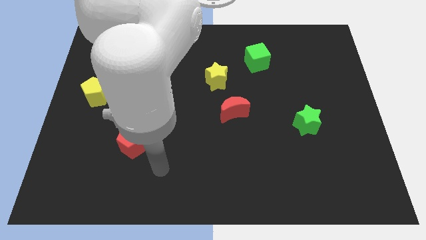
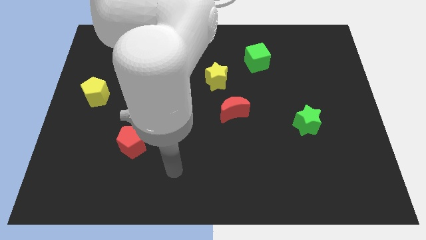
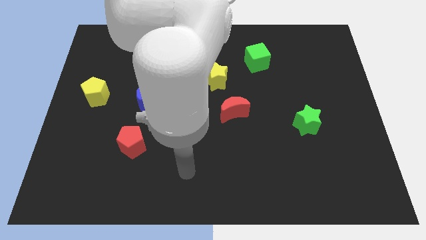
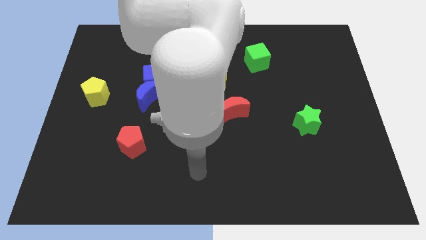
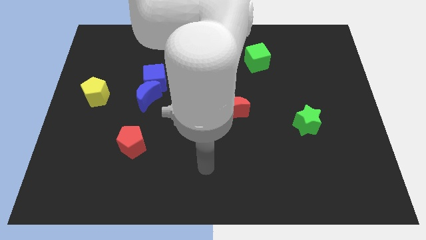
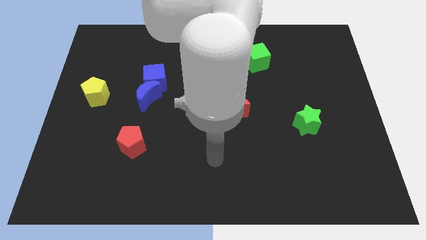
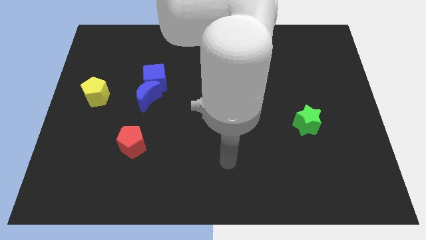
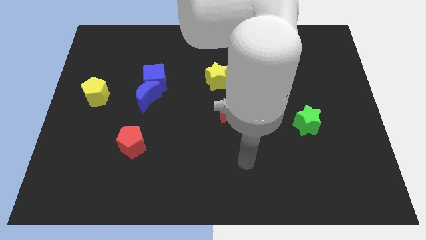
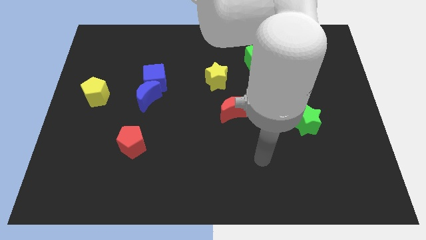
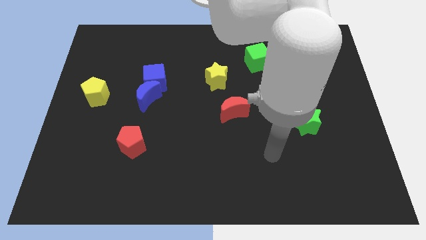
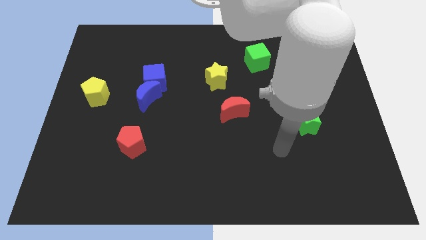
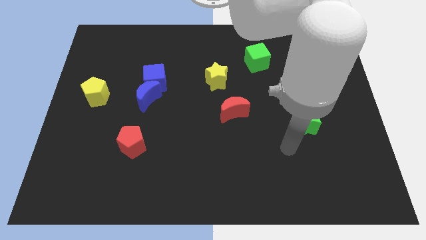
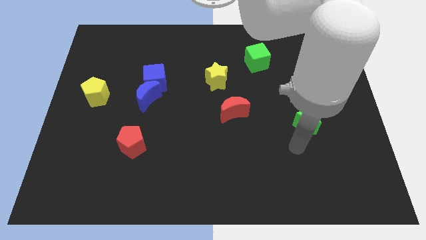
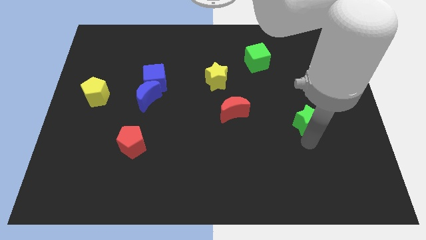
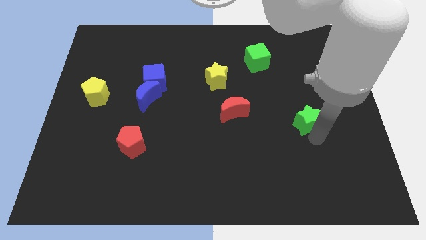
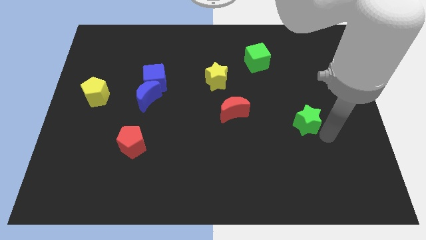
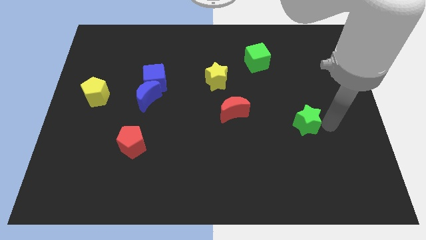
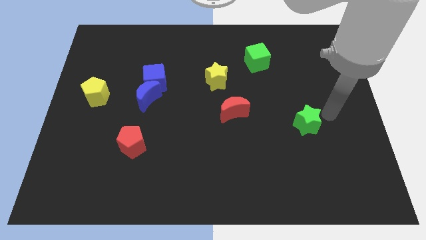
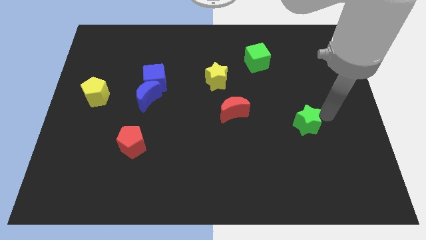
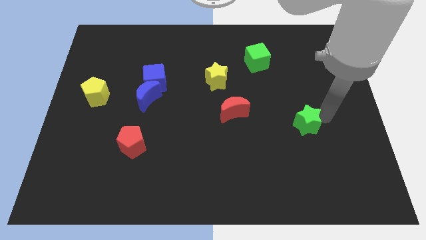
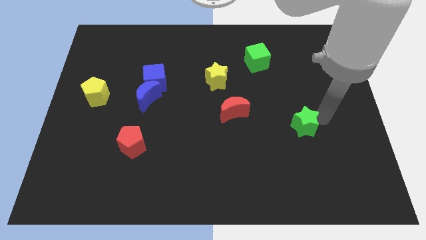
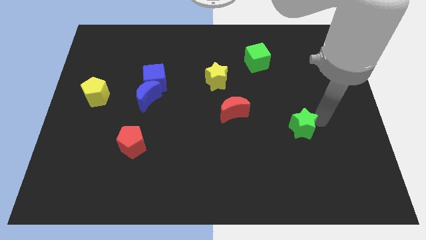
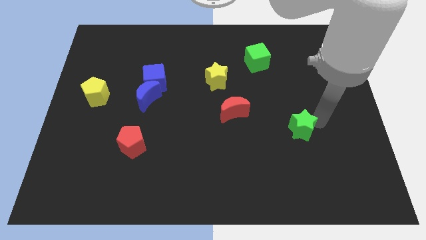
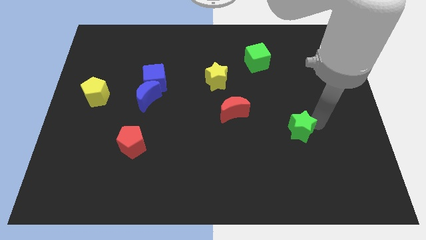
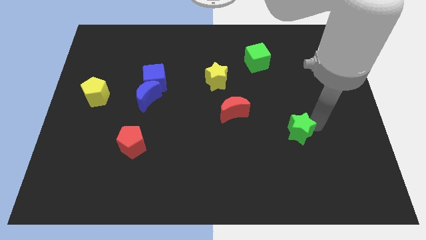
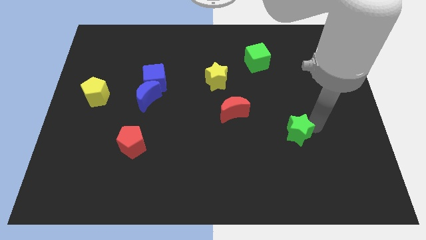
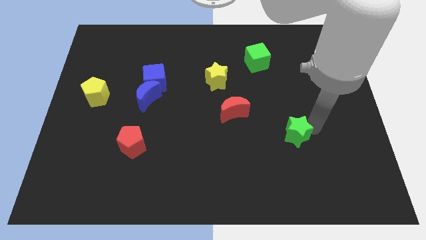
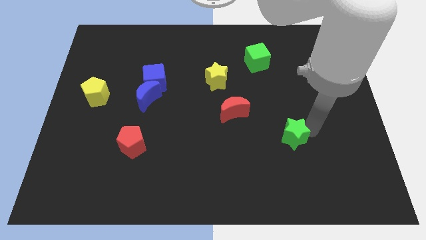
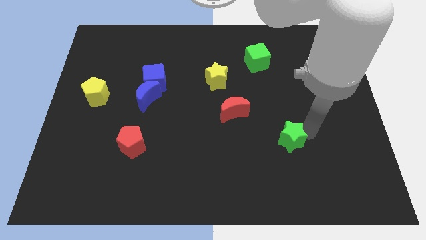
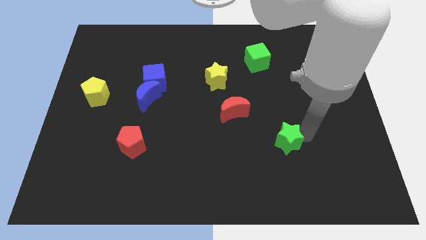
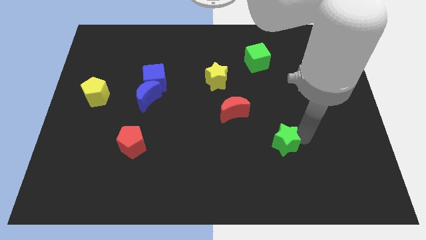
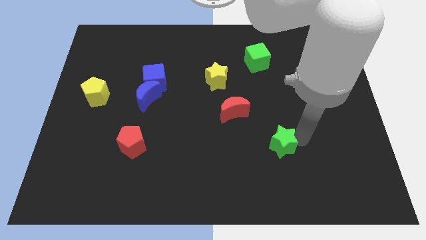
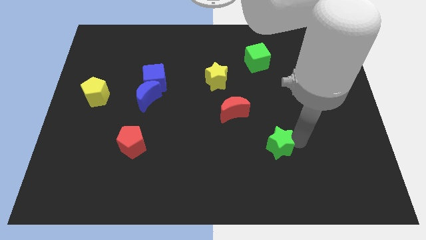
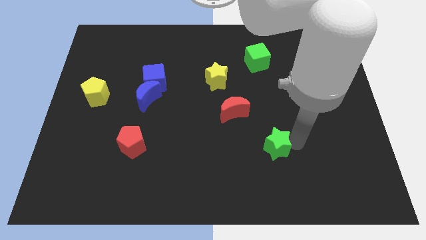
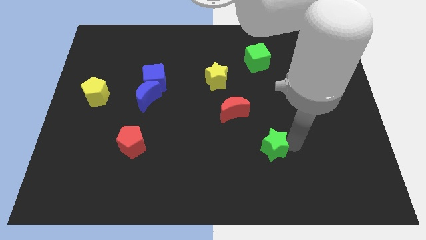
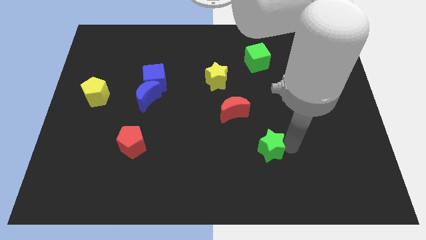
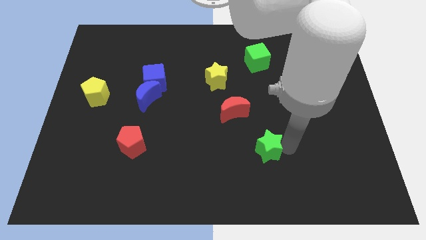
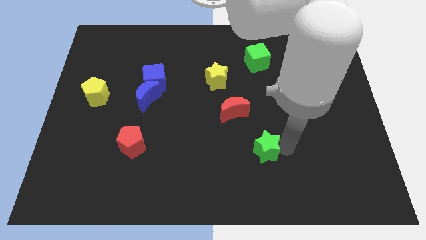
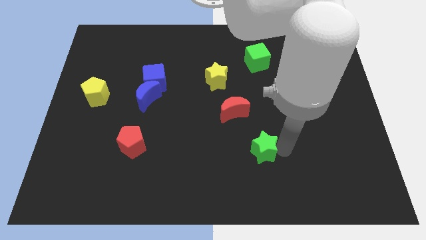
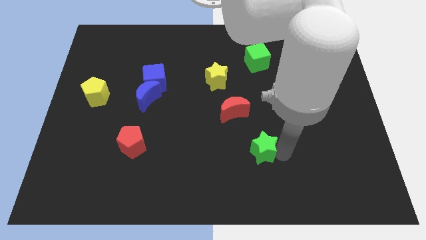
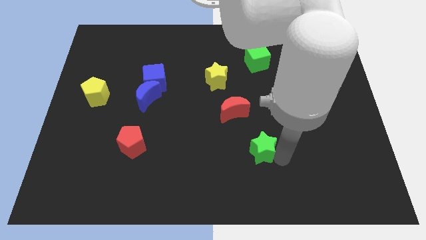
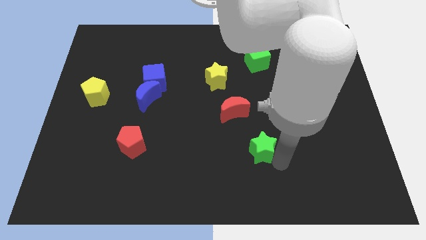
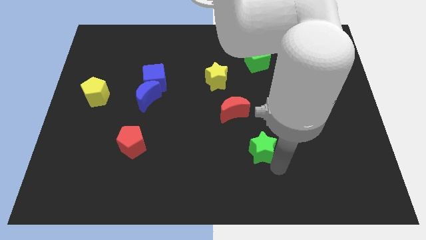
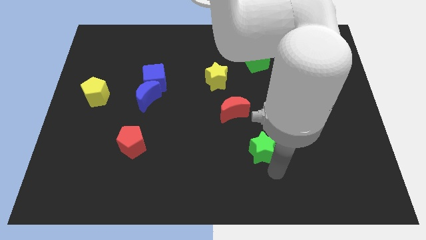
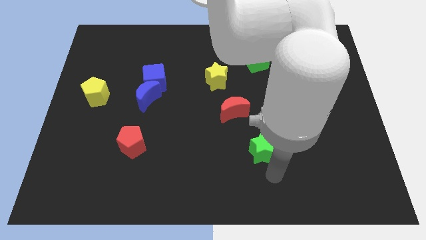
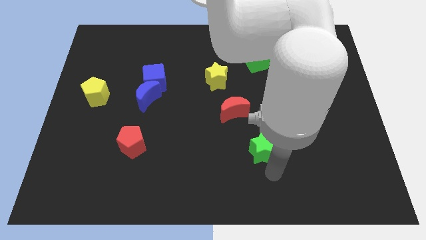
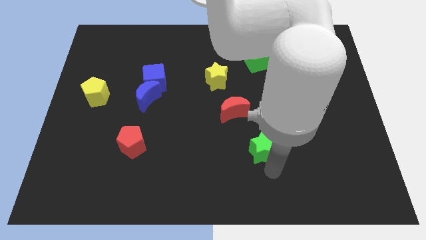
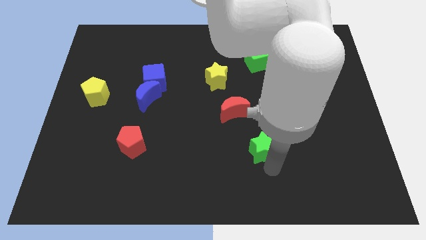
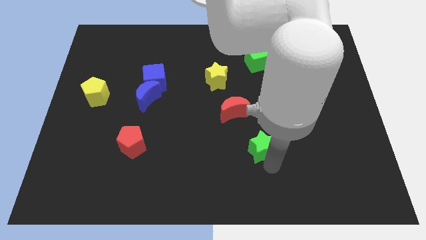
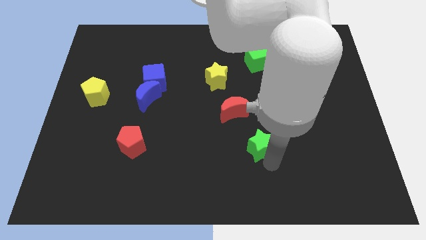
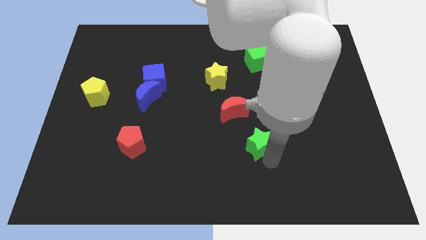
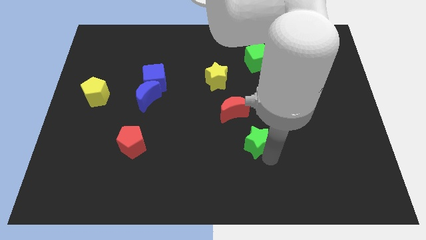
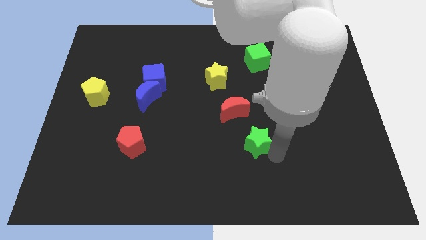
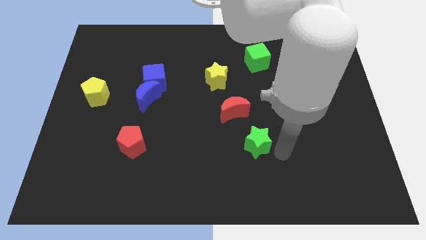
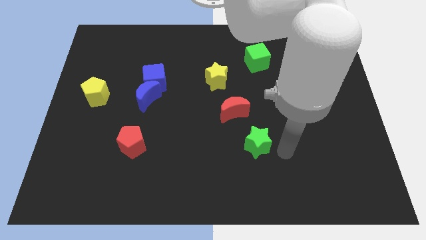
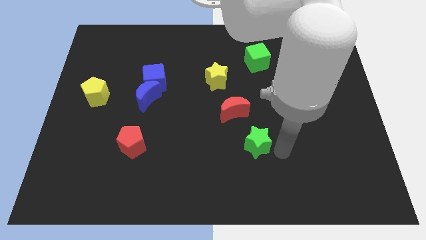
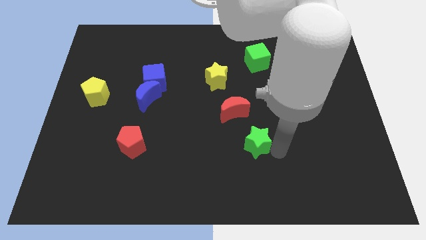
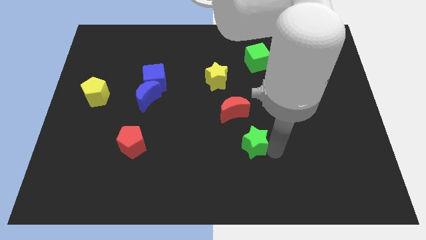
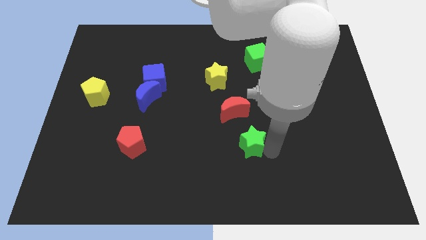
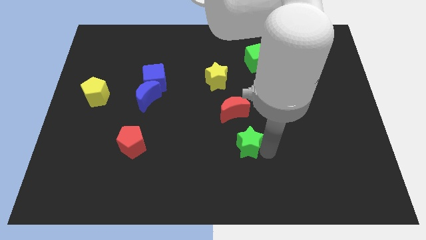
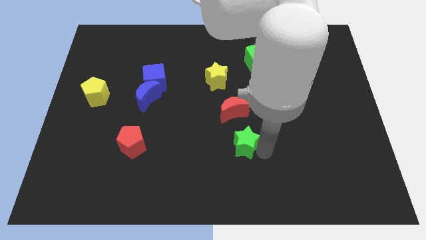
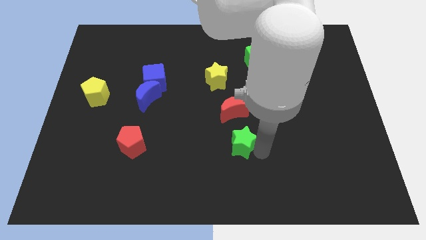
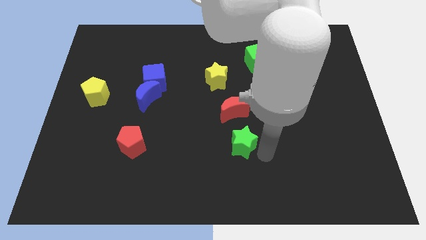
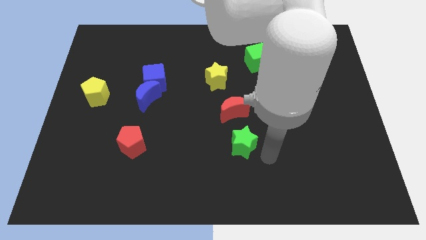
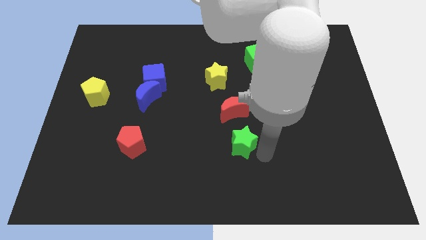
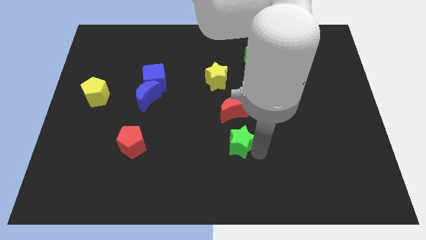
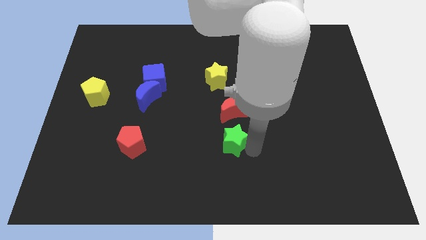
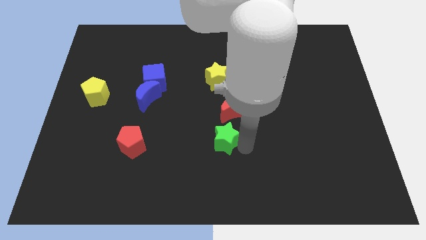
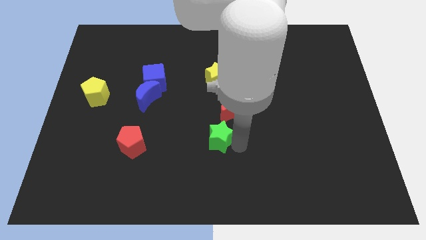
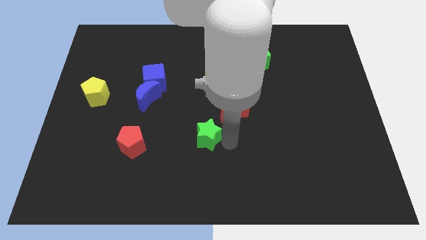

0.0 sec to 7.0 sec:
move the green star to the left

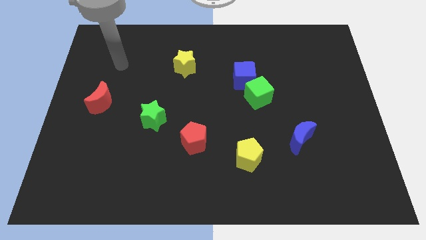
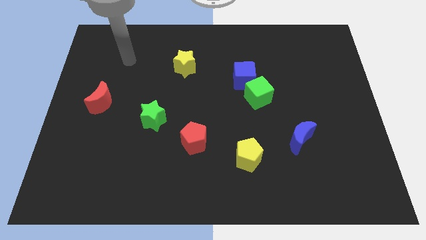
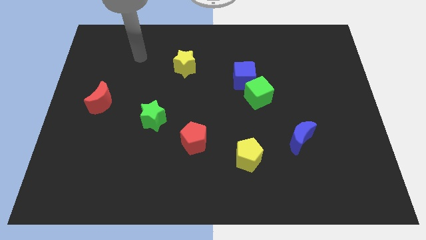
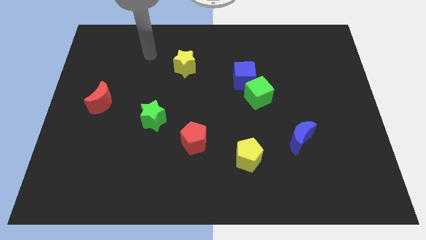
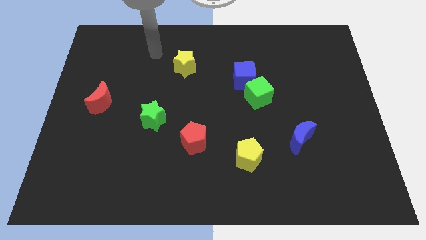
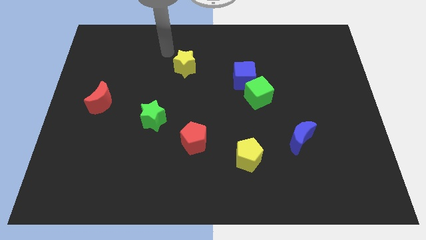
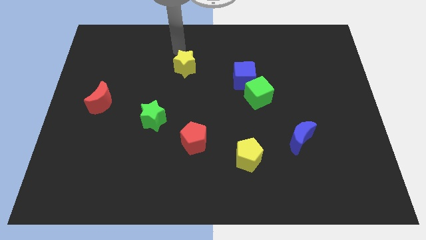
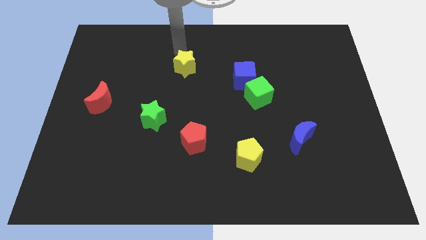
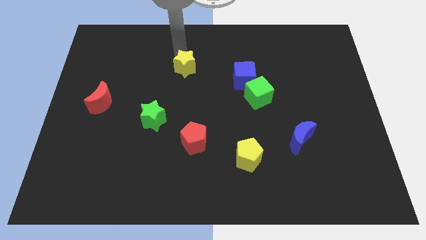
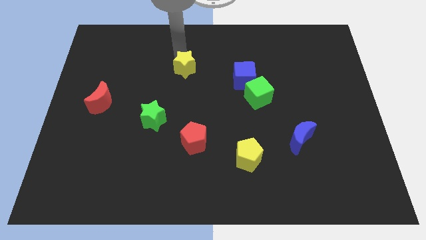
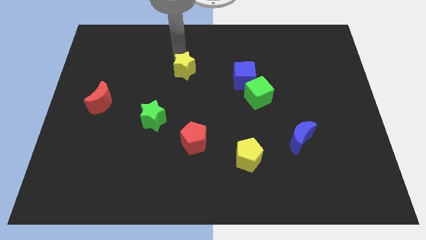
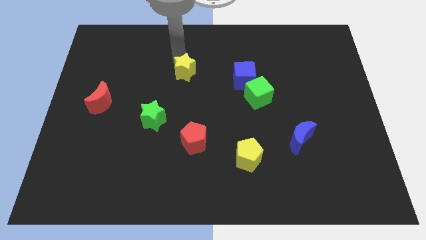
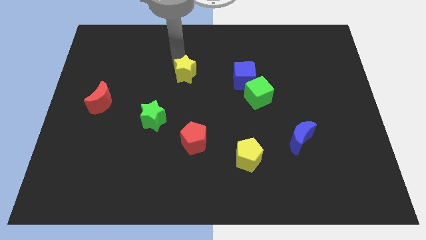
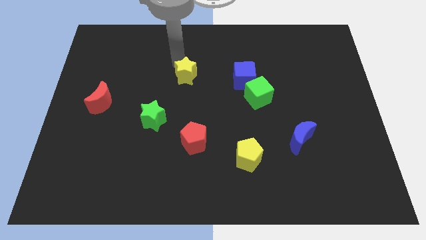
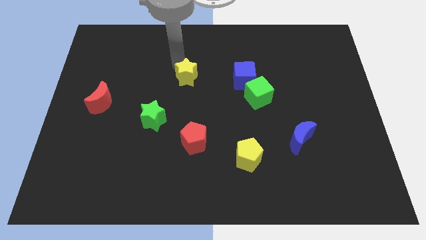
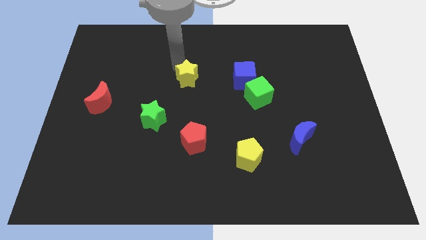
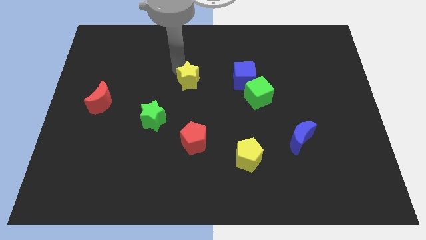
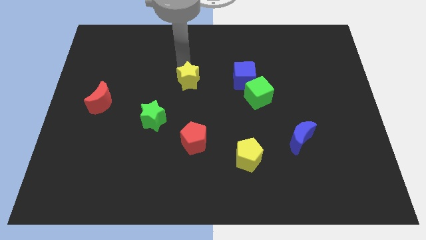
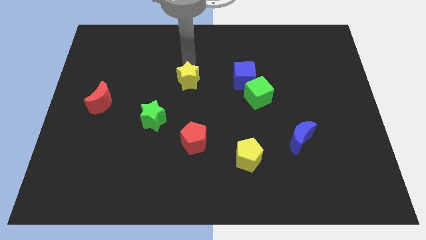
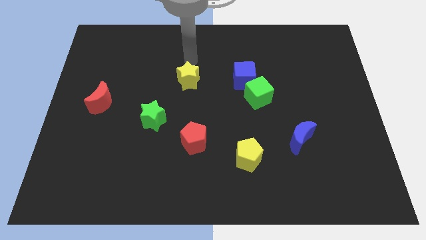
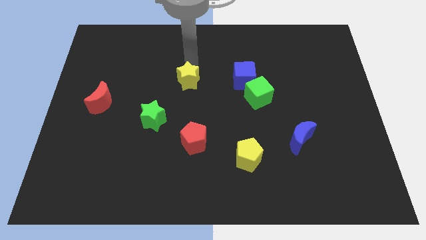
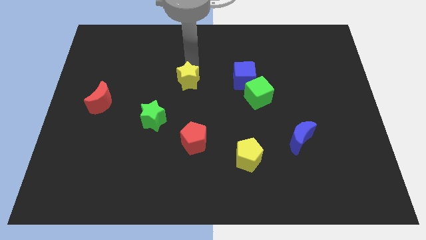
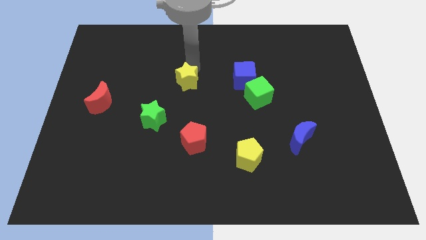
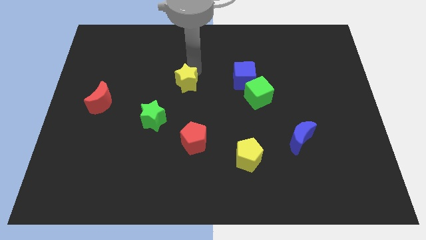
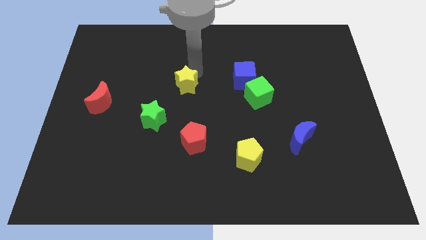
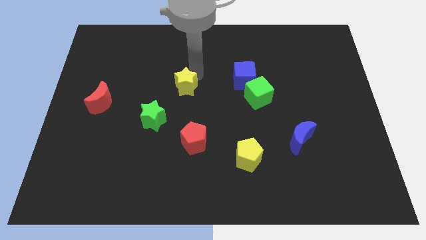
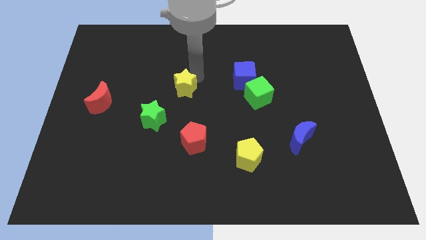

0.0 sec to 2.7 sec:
push the yellow star a little down
